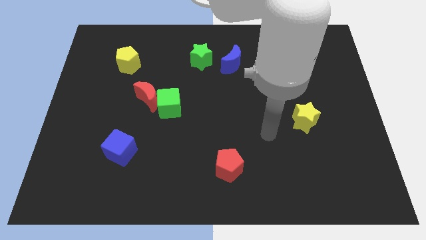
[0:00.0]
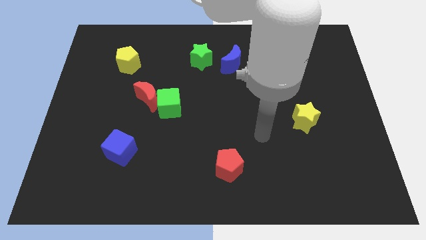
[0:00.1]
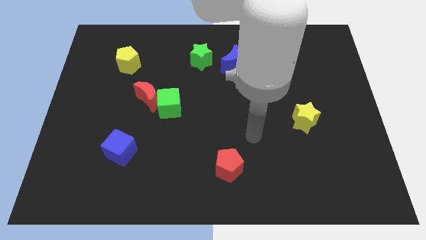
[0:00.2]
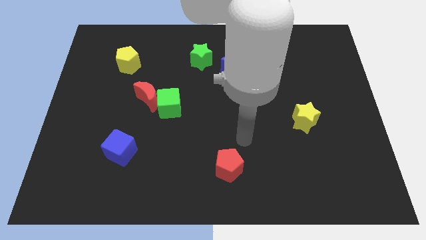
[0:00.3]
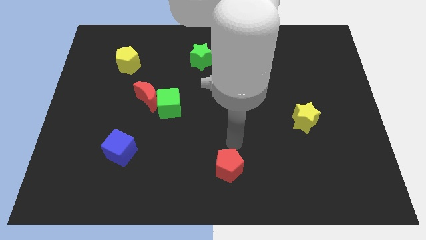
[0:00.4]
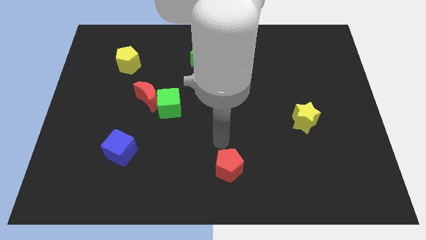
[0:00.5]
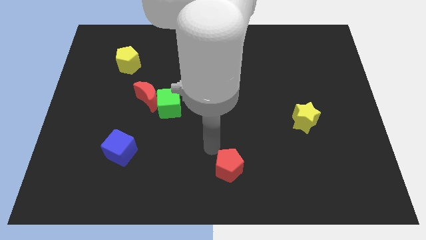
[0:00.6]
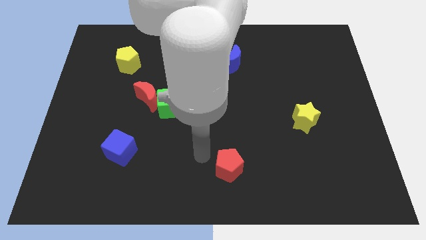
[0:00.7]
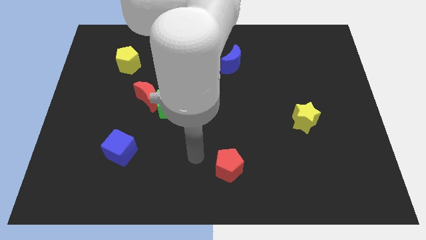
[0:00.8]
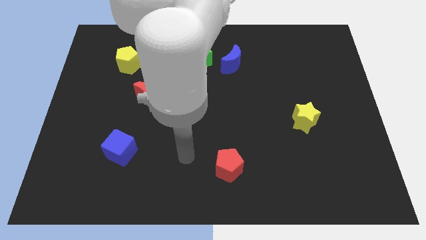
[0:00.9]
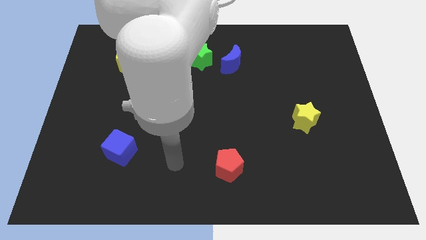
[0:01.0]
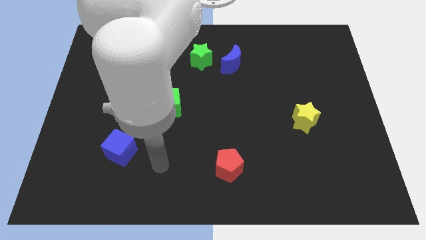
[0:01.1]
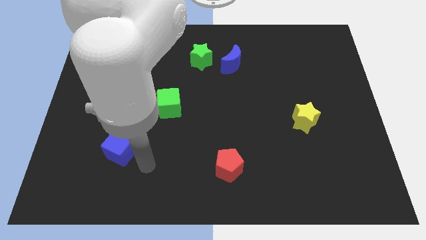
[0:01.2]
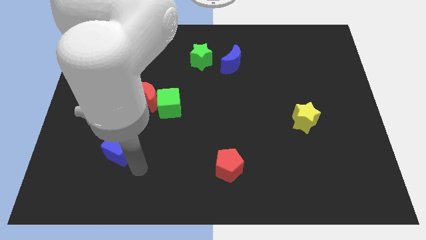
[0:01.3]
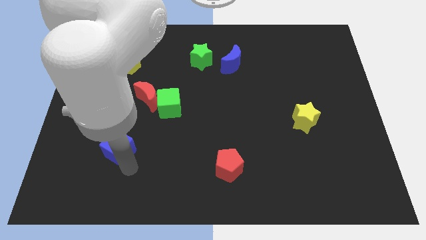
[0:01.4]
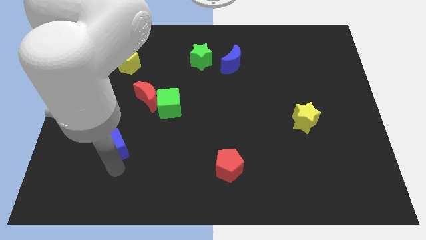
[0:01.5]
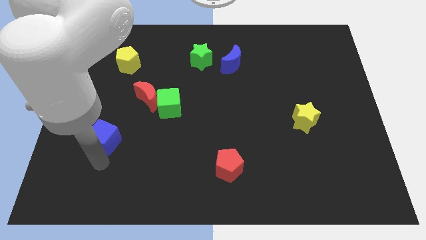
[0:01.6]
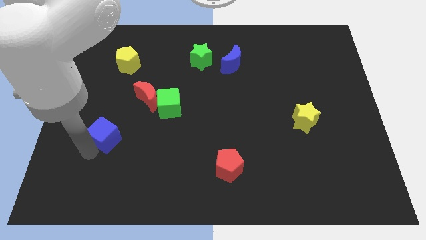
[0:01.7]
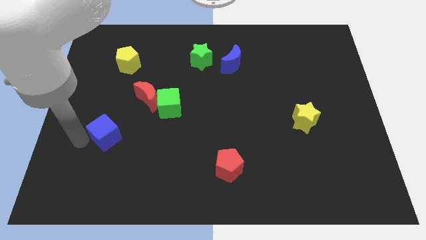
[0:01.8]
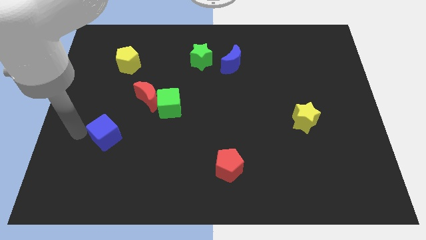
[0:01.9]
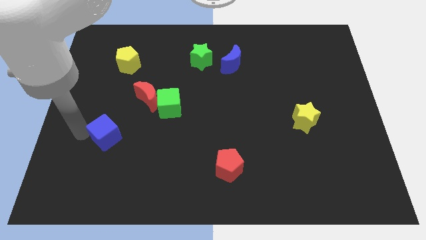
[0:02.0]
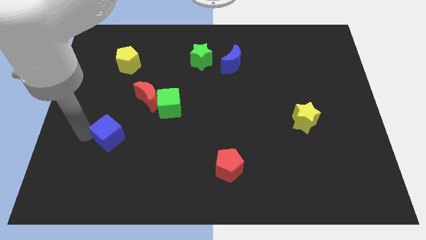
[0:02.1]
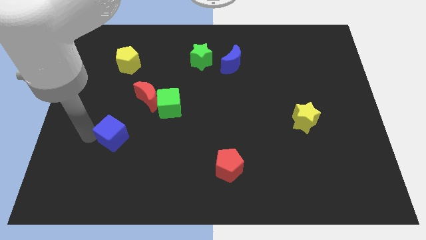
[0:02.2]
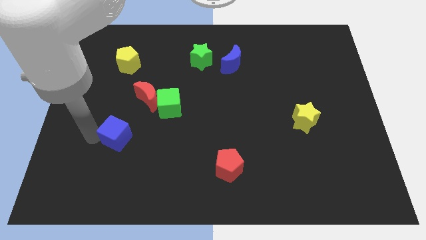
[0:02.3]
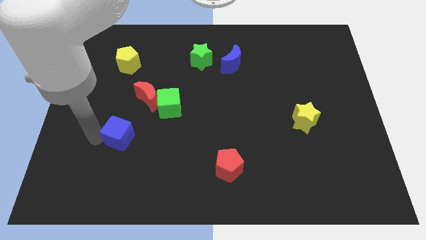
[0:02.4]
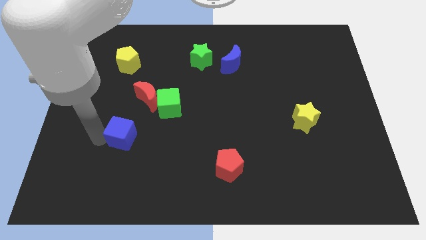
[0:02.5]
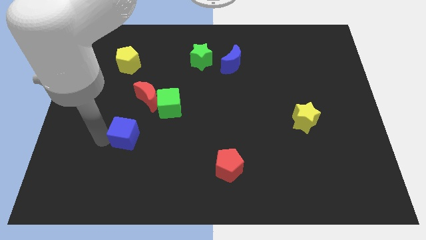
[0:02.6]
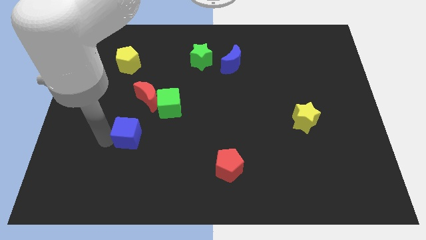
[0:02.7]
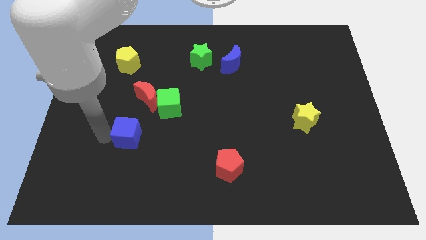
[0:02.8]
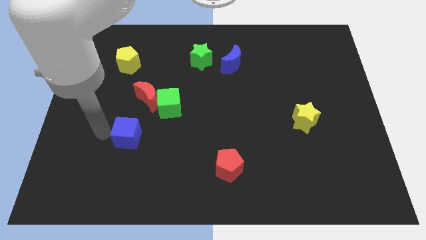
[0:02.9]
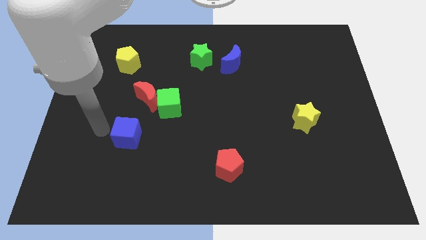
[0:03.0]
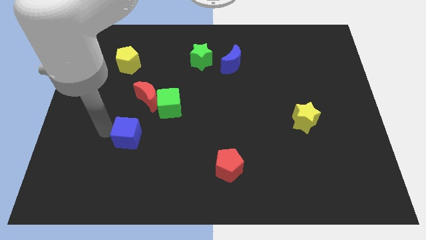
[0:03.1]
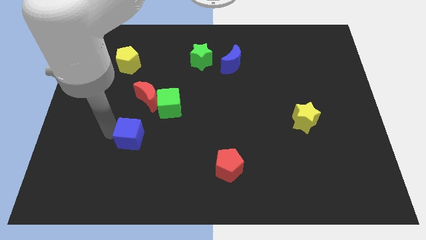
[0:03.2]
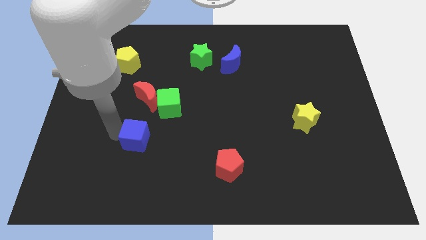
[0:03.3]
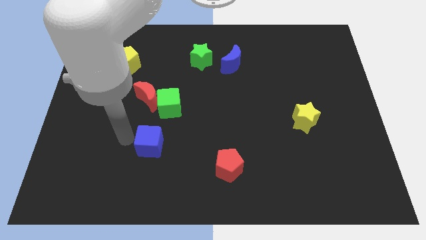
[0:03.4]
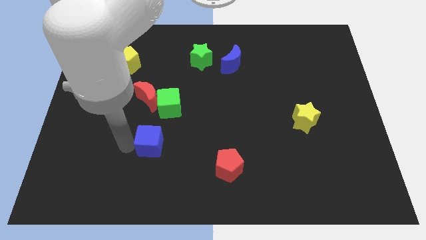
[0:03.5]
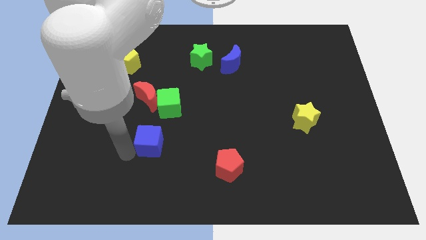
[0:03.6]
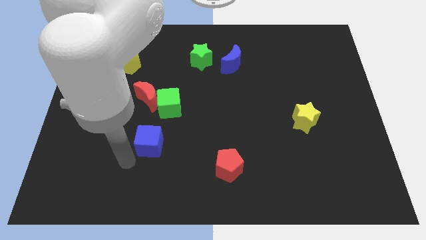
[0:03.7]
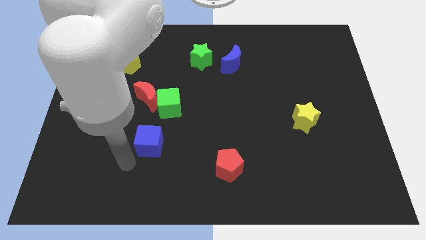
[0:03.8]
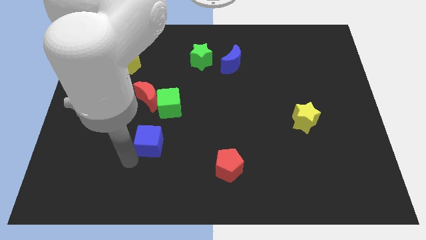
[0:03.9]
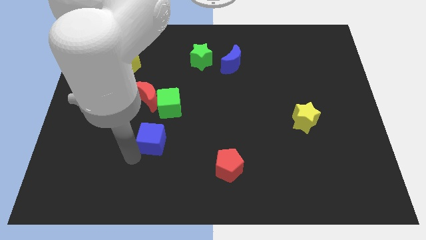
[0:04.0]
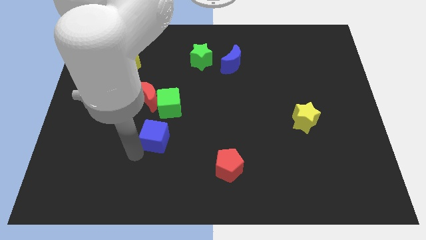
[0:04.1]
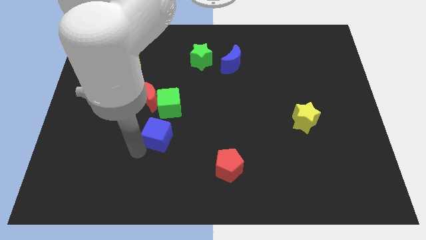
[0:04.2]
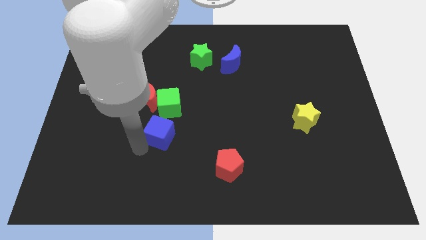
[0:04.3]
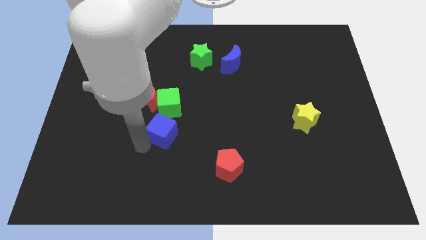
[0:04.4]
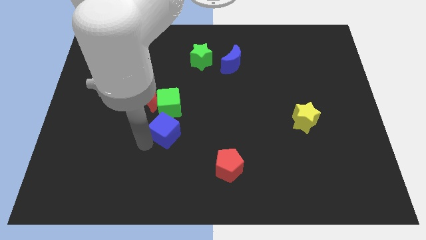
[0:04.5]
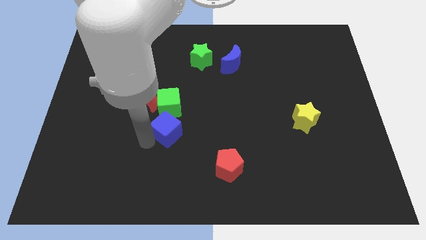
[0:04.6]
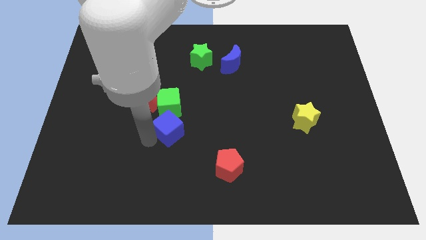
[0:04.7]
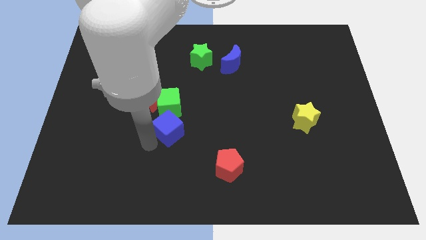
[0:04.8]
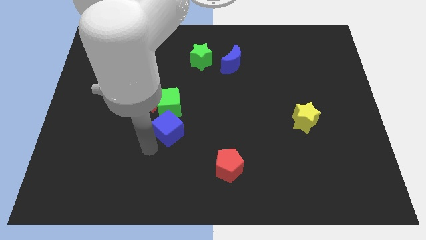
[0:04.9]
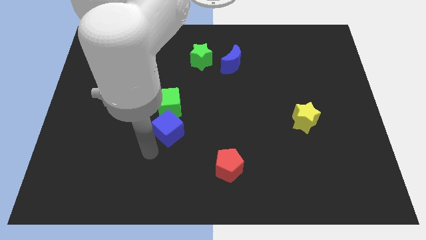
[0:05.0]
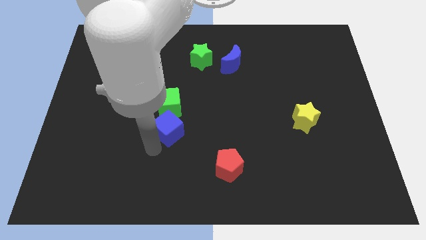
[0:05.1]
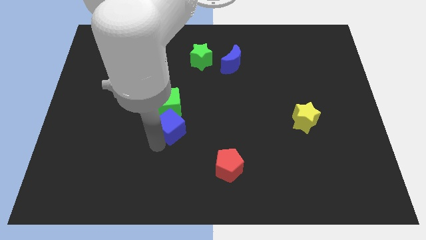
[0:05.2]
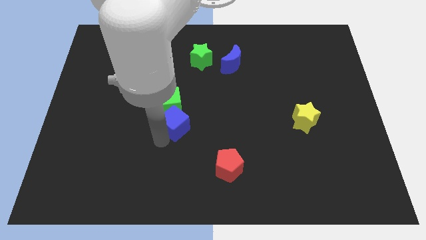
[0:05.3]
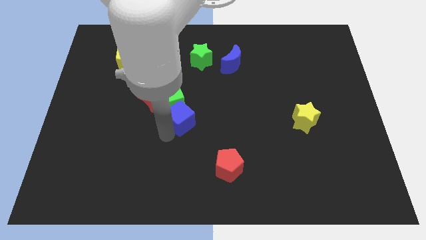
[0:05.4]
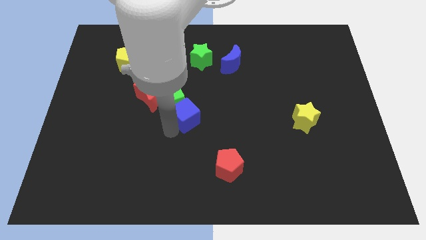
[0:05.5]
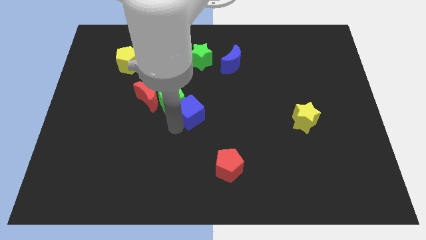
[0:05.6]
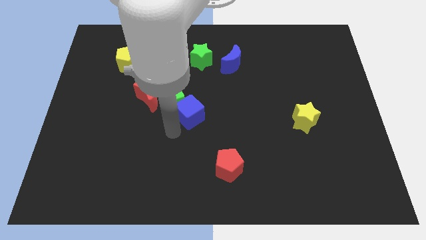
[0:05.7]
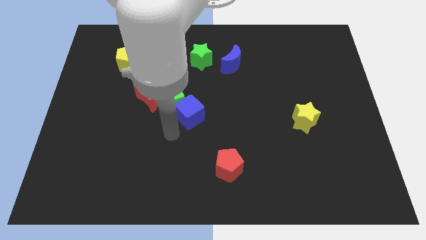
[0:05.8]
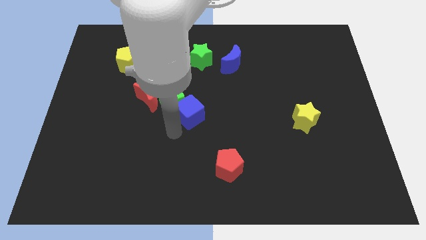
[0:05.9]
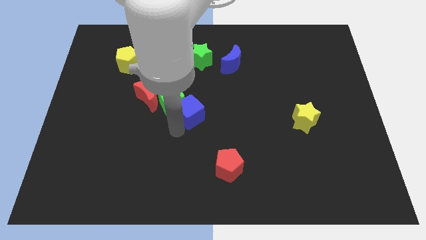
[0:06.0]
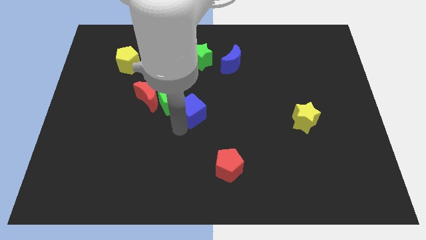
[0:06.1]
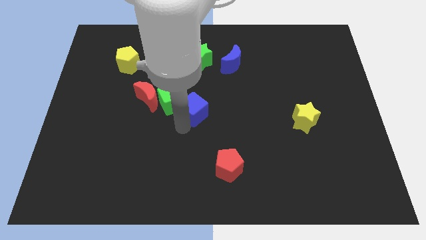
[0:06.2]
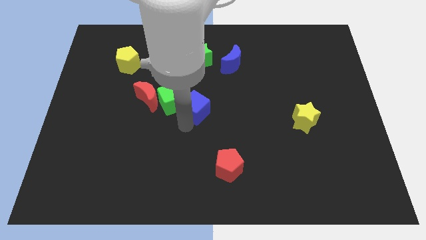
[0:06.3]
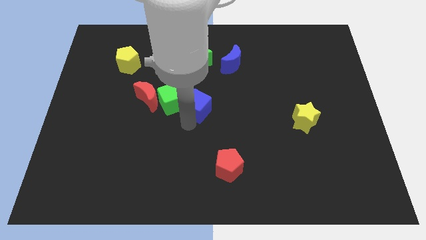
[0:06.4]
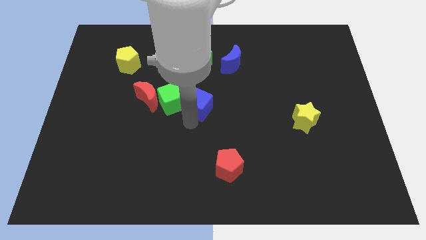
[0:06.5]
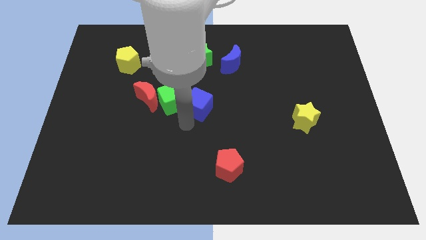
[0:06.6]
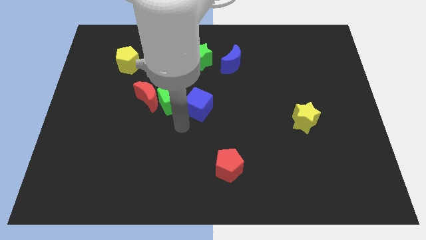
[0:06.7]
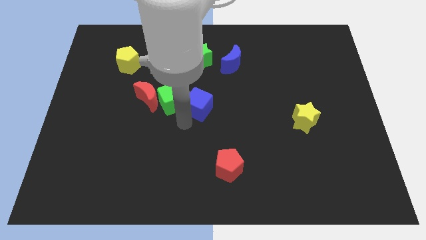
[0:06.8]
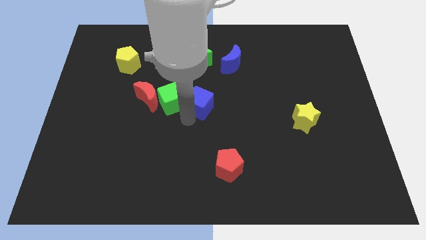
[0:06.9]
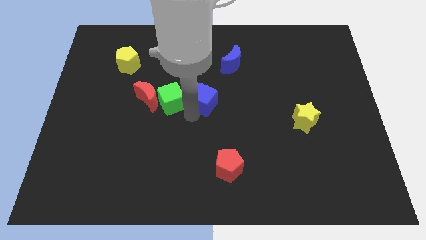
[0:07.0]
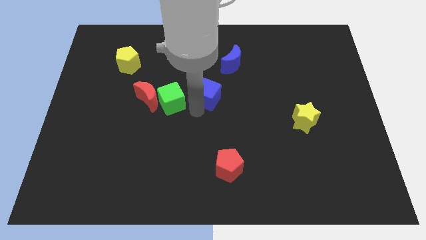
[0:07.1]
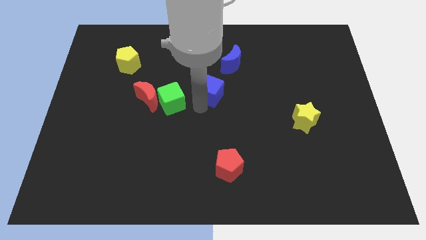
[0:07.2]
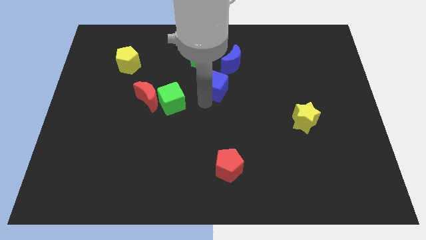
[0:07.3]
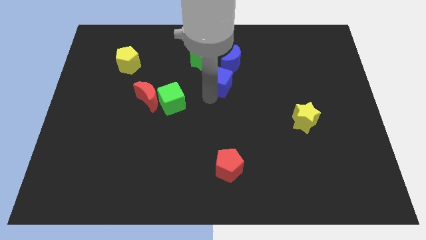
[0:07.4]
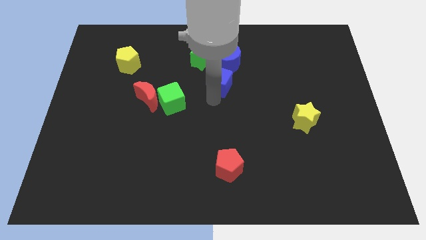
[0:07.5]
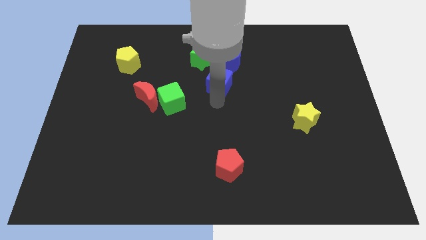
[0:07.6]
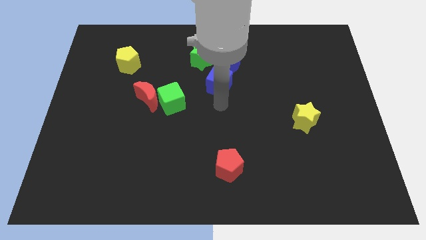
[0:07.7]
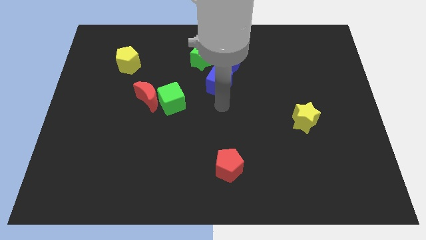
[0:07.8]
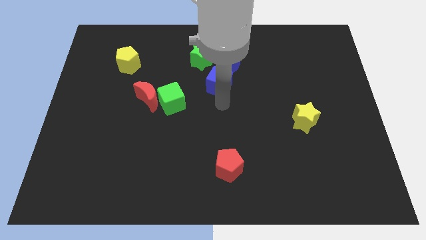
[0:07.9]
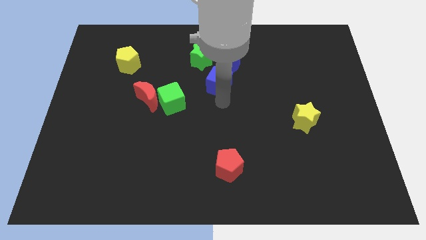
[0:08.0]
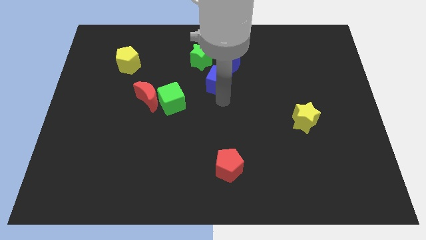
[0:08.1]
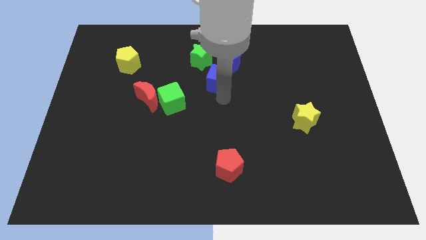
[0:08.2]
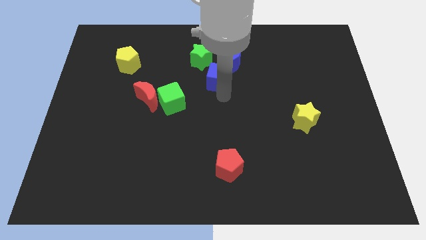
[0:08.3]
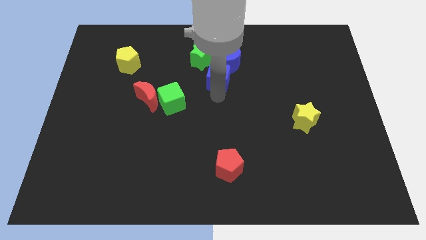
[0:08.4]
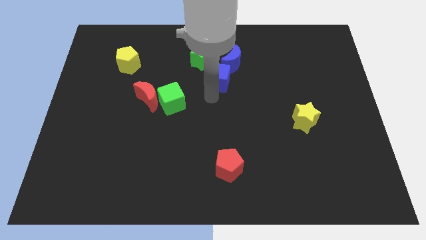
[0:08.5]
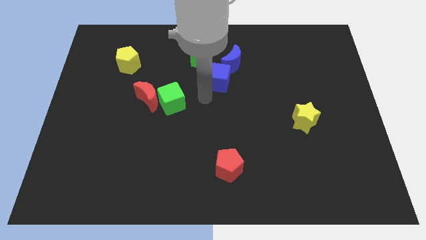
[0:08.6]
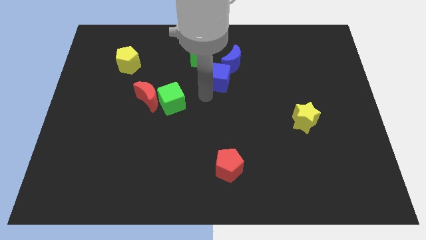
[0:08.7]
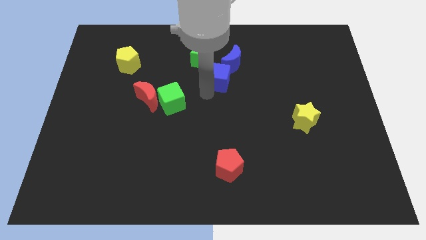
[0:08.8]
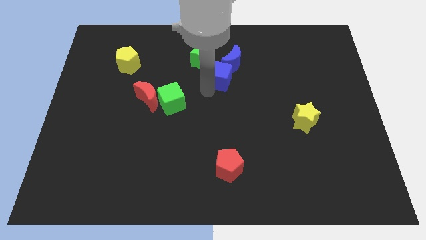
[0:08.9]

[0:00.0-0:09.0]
push the blue cube towards the blue moon
